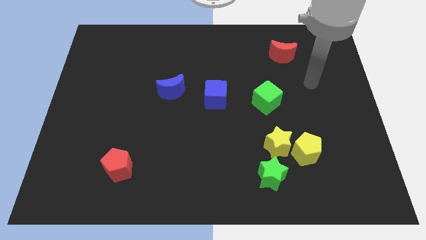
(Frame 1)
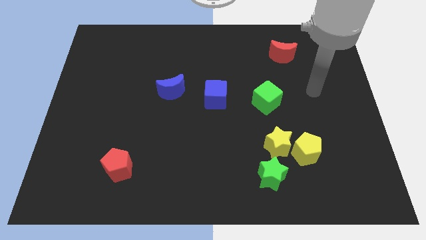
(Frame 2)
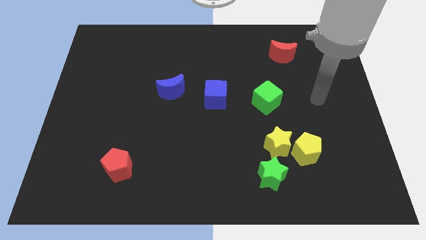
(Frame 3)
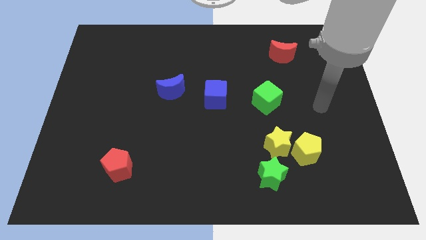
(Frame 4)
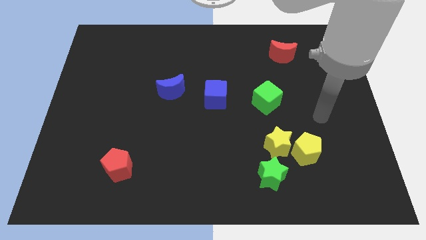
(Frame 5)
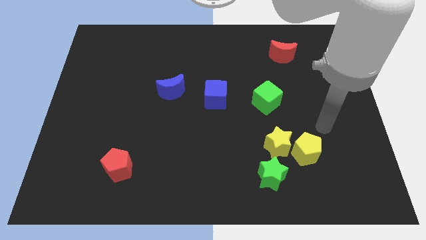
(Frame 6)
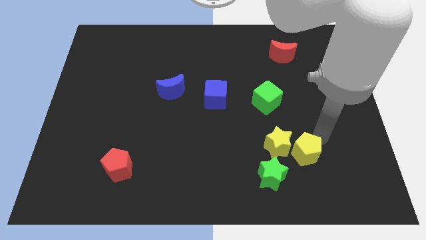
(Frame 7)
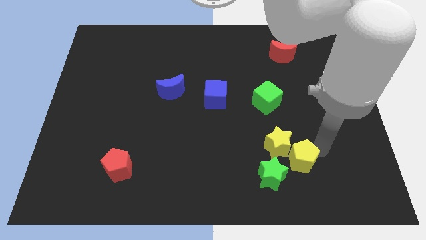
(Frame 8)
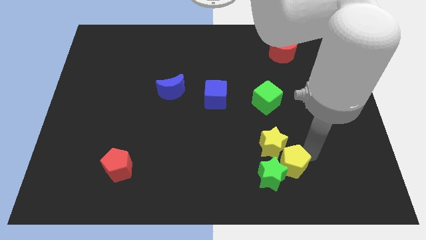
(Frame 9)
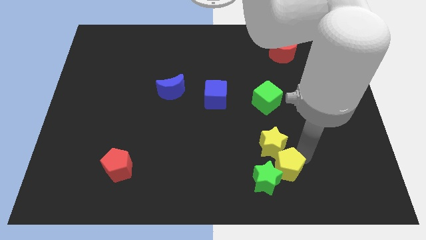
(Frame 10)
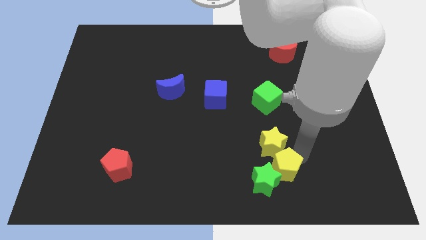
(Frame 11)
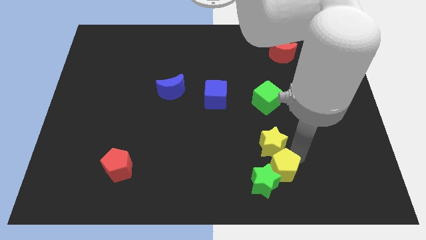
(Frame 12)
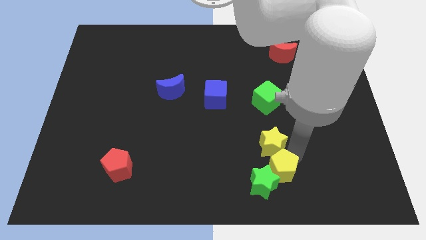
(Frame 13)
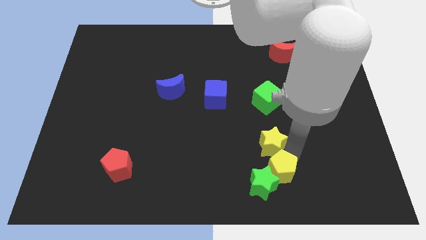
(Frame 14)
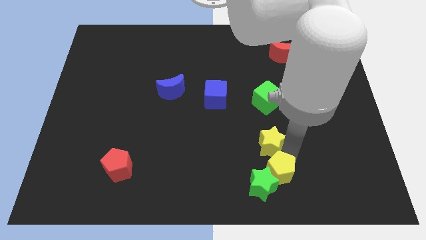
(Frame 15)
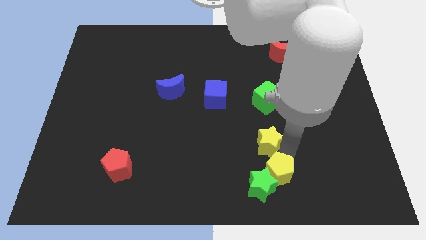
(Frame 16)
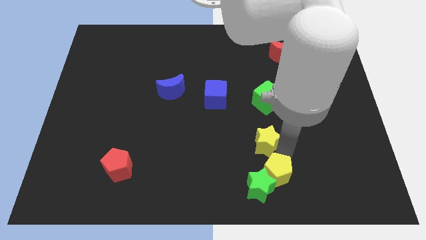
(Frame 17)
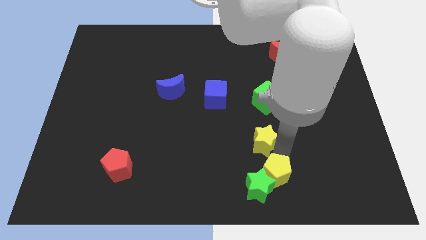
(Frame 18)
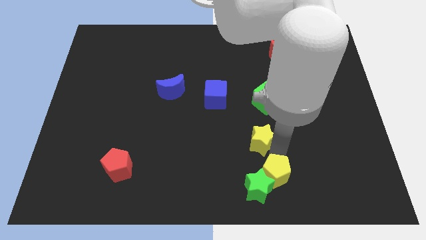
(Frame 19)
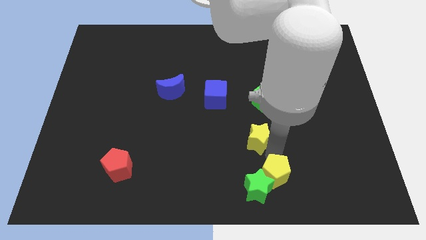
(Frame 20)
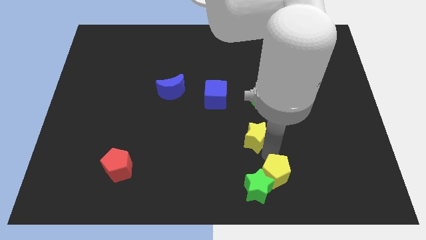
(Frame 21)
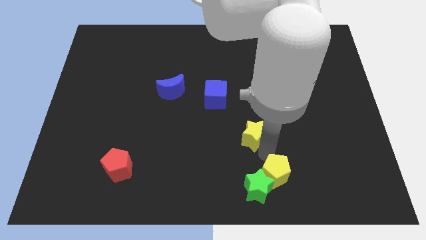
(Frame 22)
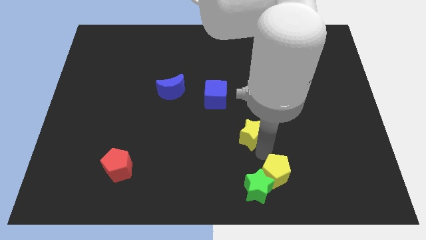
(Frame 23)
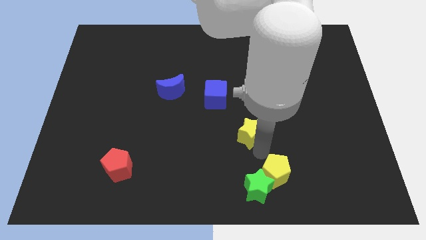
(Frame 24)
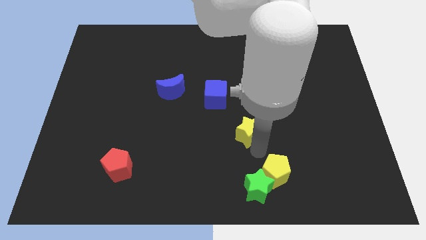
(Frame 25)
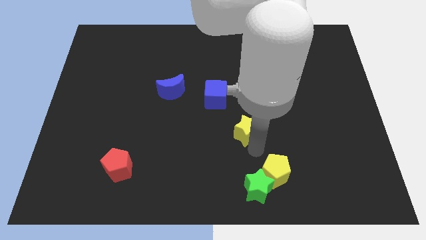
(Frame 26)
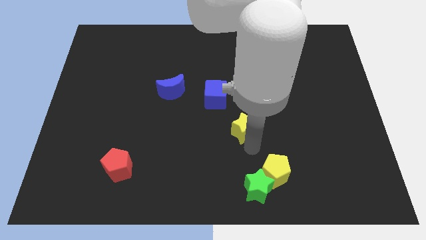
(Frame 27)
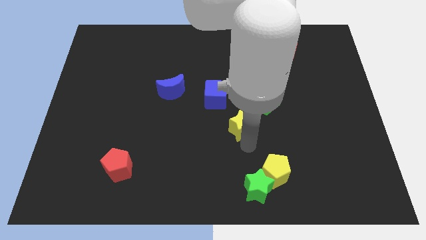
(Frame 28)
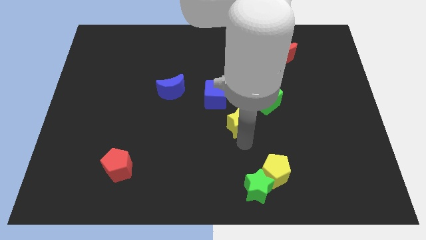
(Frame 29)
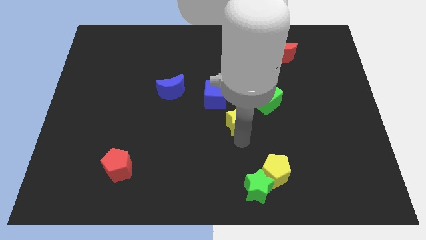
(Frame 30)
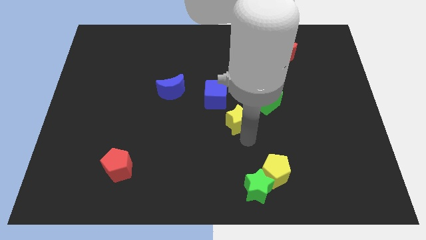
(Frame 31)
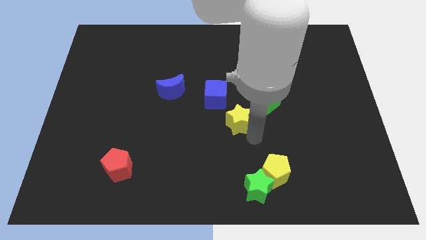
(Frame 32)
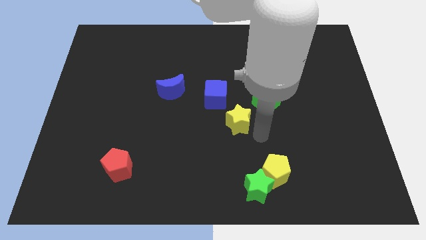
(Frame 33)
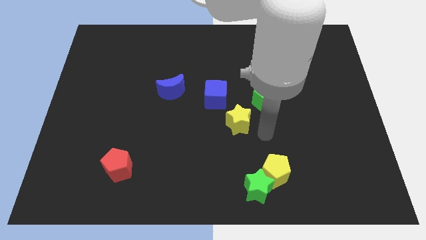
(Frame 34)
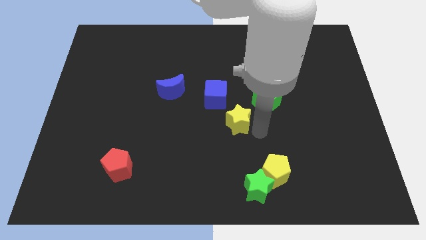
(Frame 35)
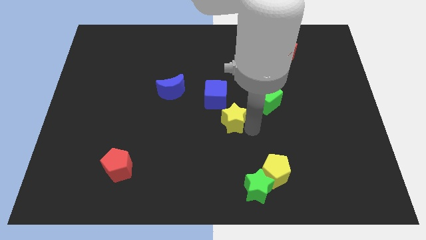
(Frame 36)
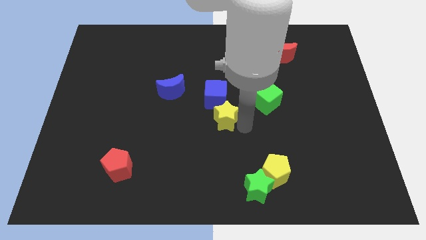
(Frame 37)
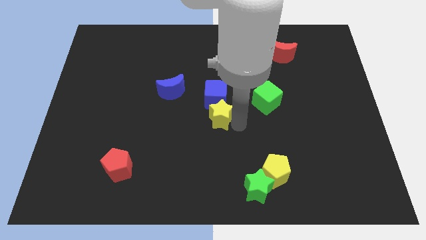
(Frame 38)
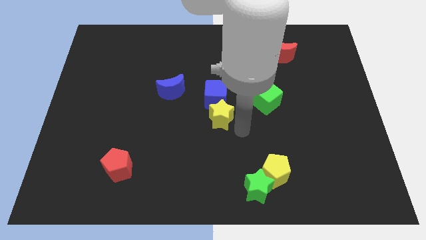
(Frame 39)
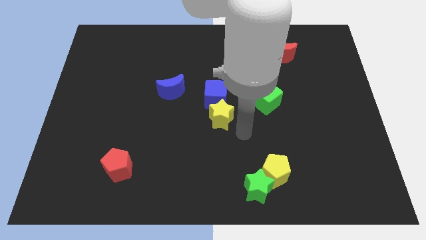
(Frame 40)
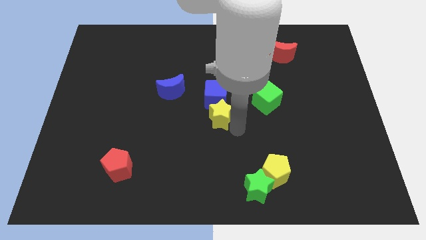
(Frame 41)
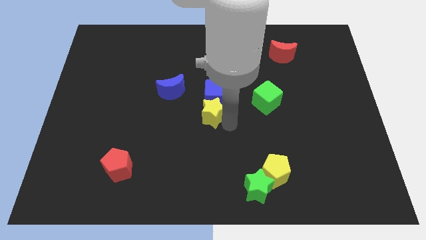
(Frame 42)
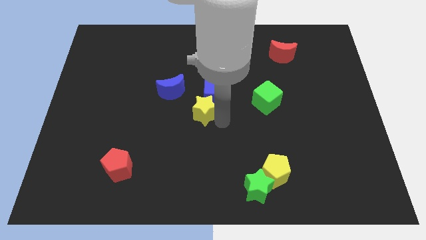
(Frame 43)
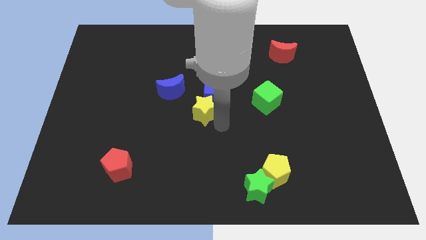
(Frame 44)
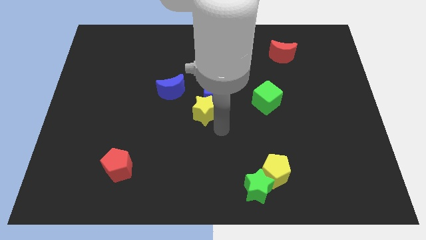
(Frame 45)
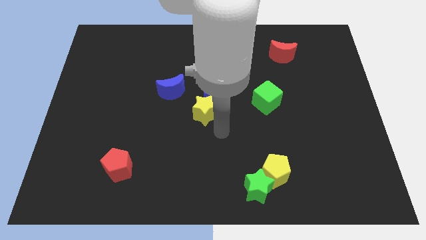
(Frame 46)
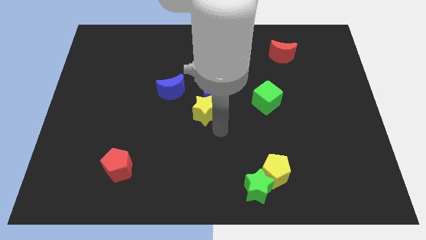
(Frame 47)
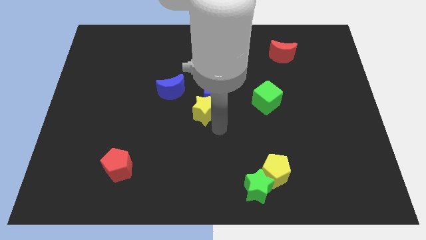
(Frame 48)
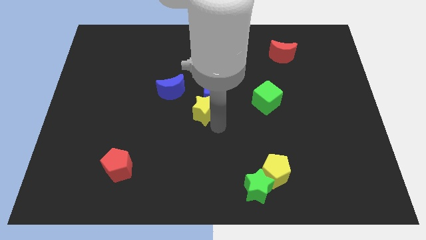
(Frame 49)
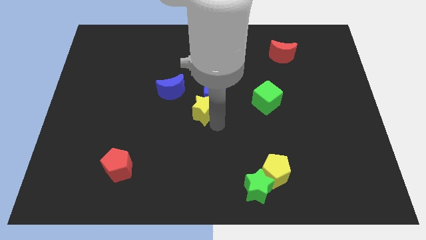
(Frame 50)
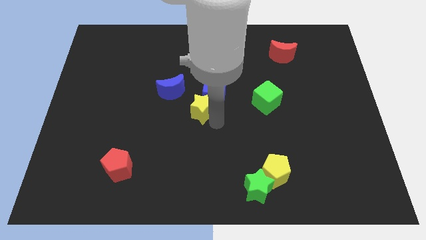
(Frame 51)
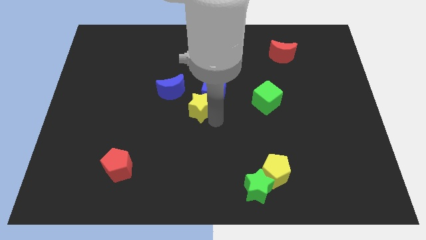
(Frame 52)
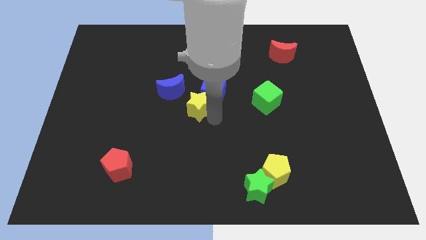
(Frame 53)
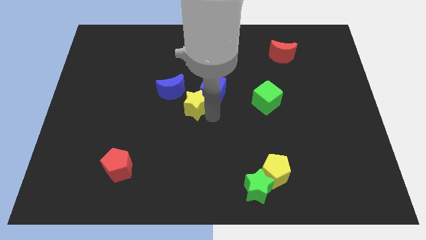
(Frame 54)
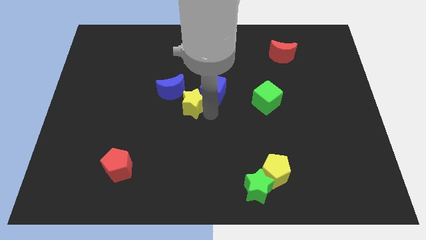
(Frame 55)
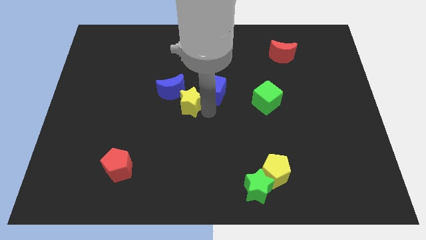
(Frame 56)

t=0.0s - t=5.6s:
put the yellow star close to the blue moon

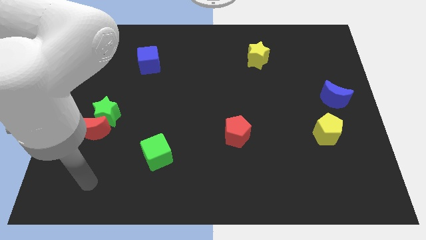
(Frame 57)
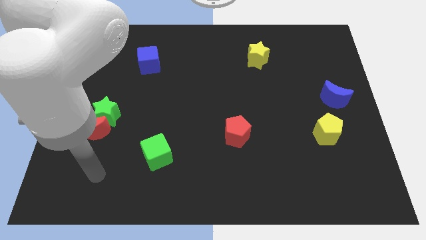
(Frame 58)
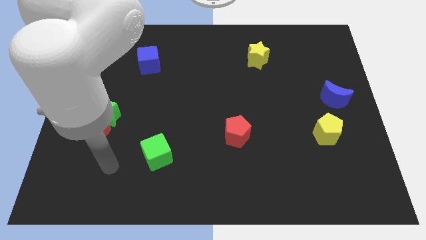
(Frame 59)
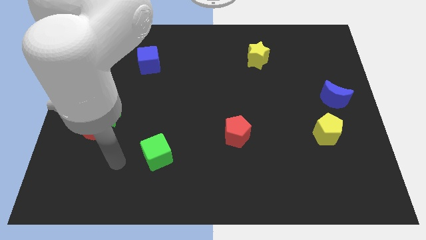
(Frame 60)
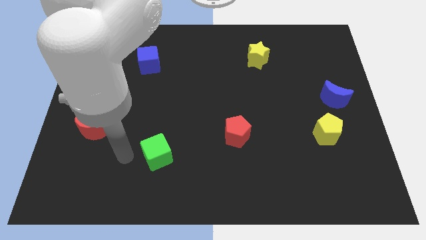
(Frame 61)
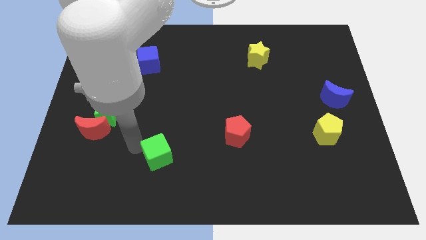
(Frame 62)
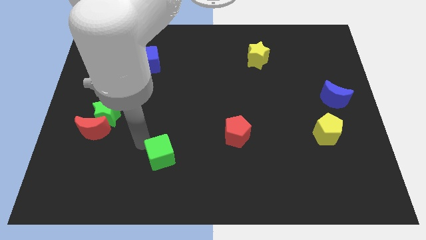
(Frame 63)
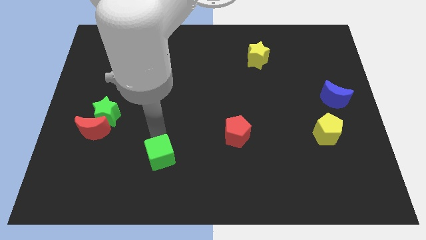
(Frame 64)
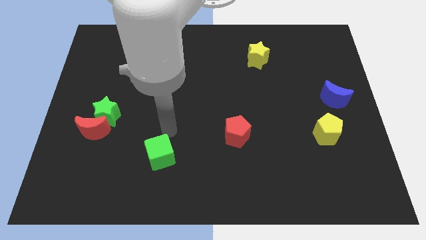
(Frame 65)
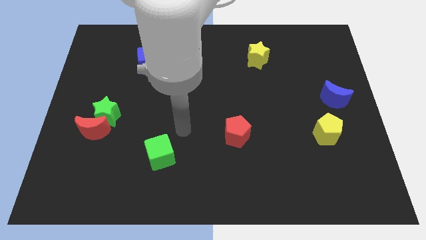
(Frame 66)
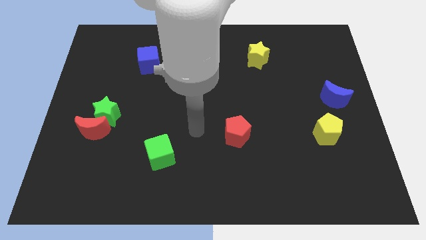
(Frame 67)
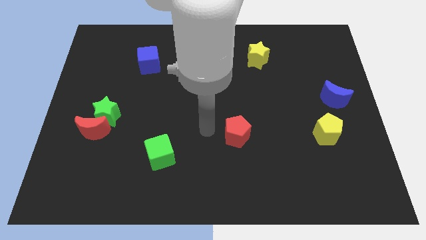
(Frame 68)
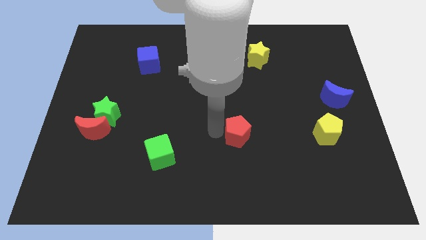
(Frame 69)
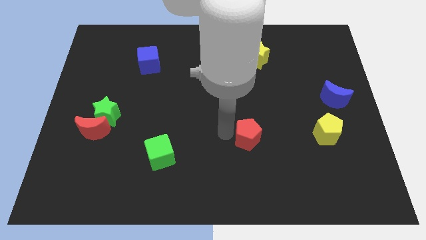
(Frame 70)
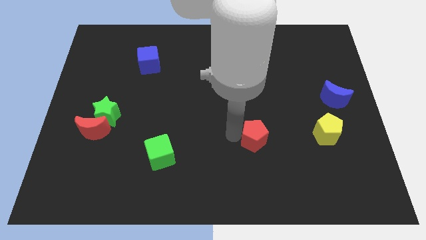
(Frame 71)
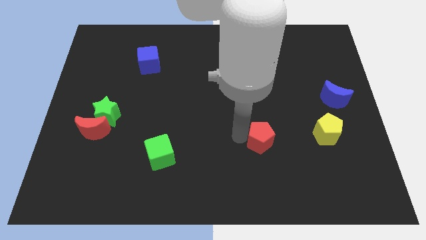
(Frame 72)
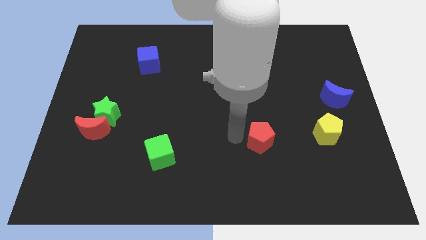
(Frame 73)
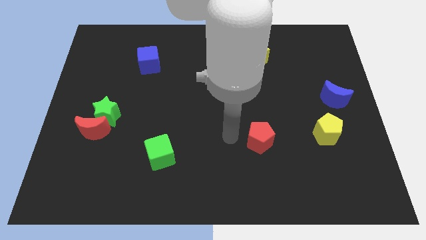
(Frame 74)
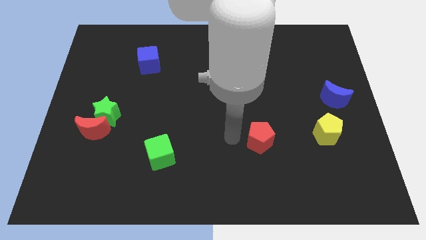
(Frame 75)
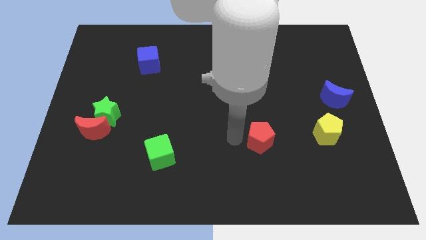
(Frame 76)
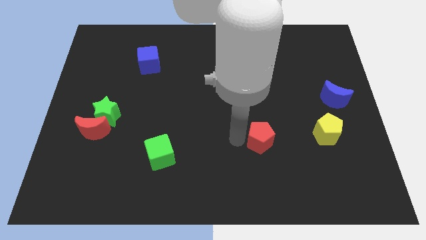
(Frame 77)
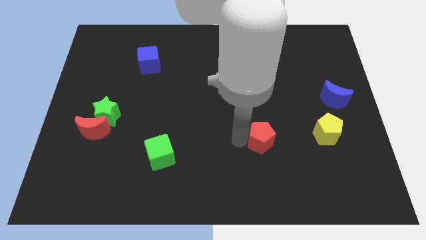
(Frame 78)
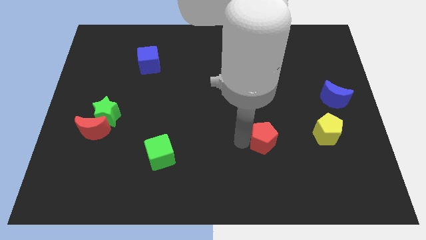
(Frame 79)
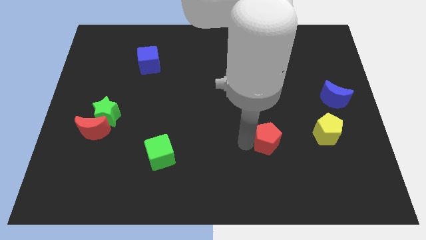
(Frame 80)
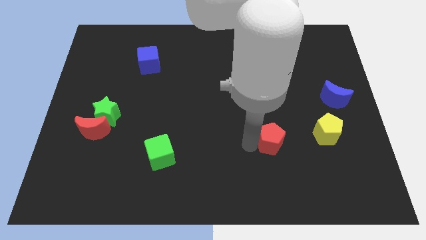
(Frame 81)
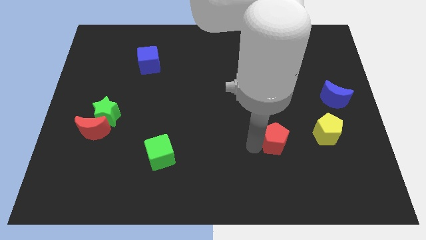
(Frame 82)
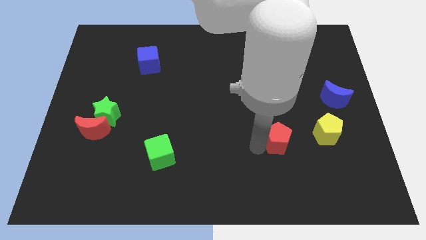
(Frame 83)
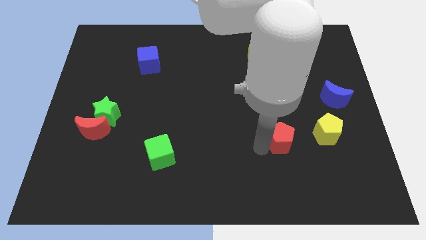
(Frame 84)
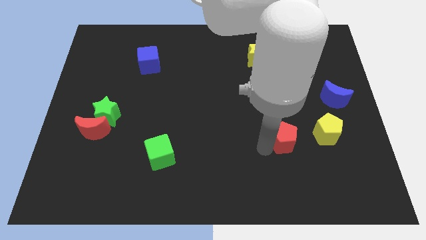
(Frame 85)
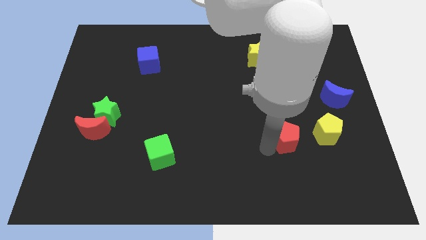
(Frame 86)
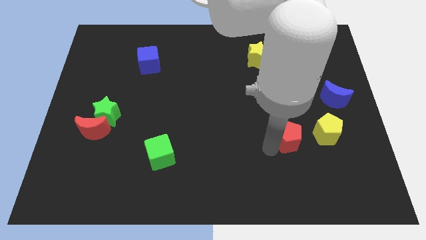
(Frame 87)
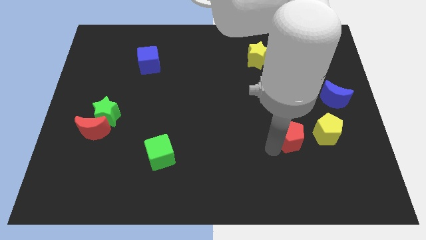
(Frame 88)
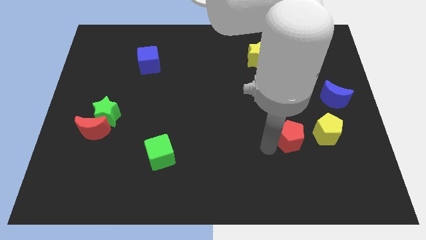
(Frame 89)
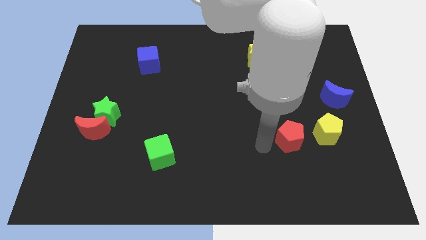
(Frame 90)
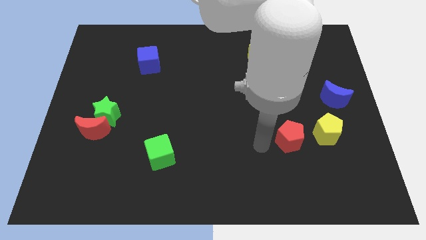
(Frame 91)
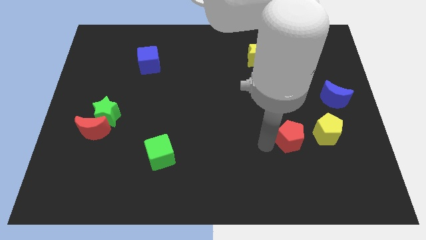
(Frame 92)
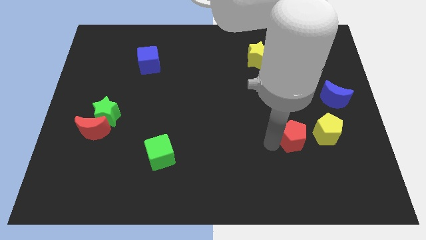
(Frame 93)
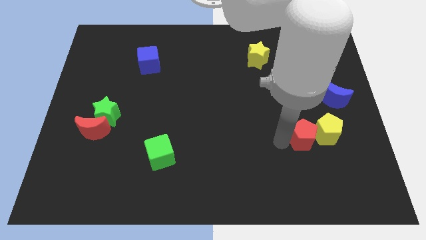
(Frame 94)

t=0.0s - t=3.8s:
put the red pentagon towards the yellow pentagon
